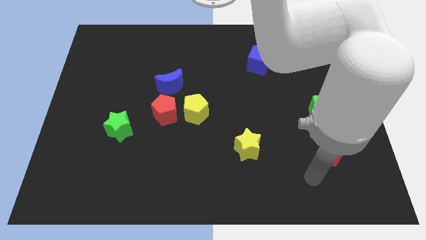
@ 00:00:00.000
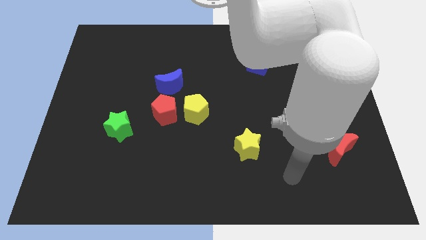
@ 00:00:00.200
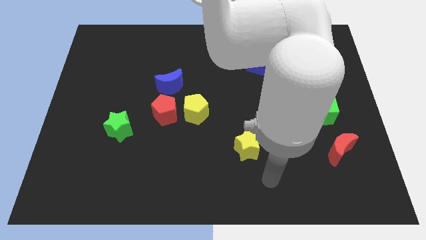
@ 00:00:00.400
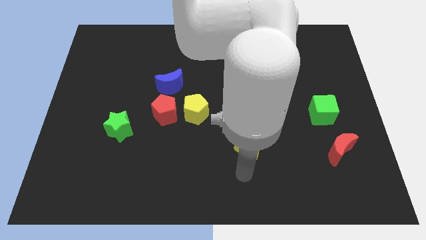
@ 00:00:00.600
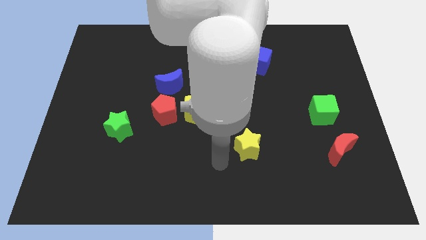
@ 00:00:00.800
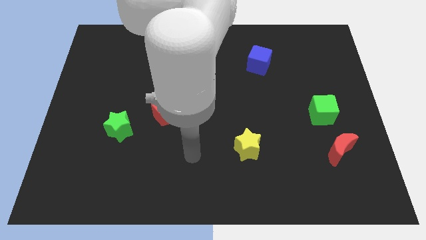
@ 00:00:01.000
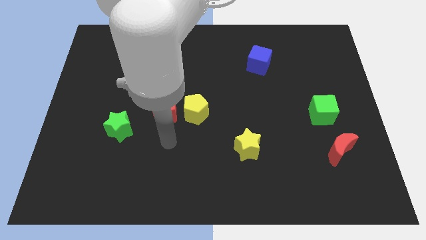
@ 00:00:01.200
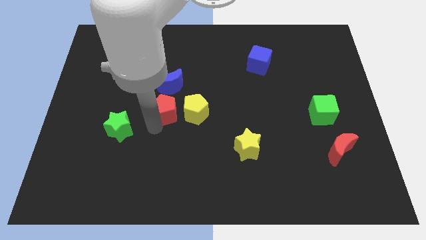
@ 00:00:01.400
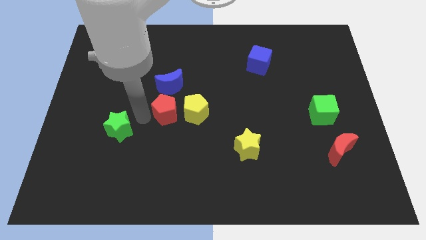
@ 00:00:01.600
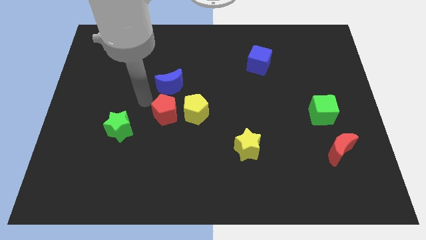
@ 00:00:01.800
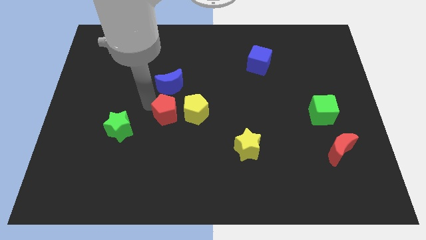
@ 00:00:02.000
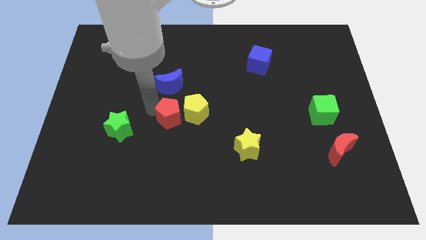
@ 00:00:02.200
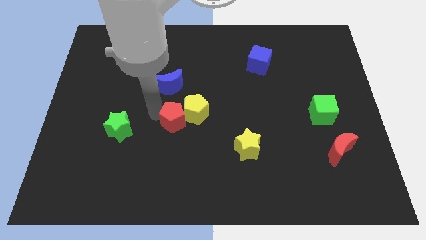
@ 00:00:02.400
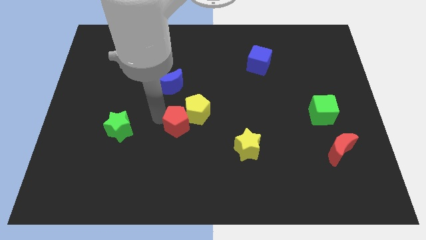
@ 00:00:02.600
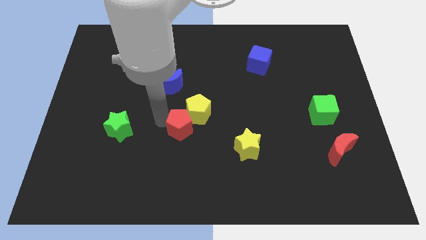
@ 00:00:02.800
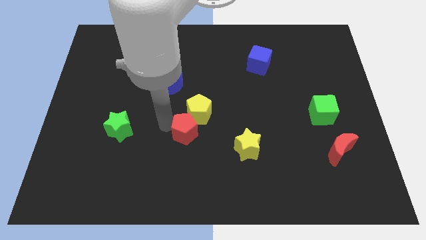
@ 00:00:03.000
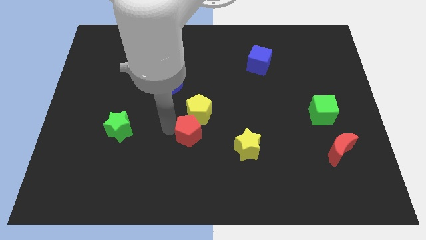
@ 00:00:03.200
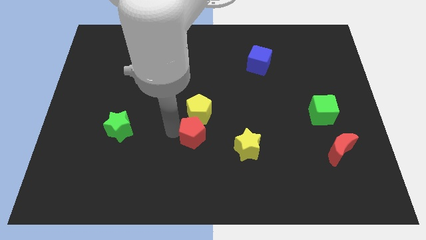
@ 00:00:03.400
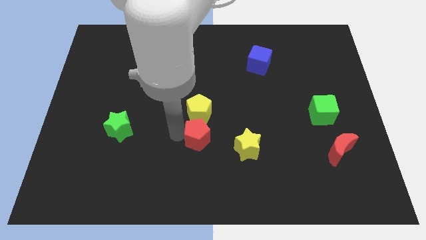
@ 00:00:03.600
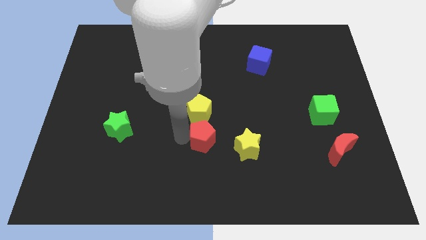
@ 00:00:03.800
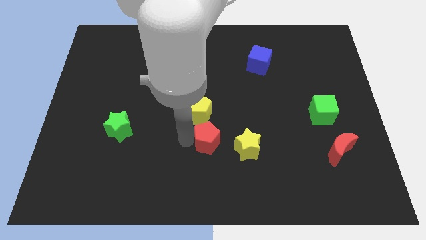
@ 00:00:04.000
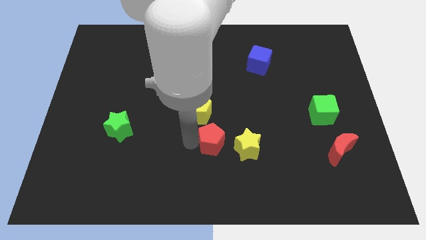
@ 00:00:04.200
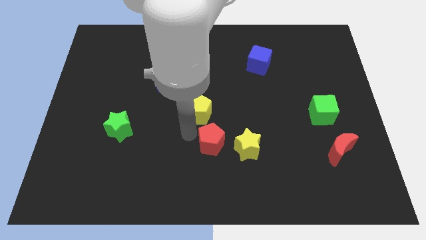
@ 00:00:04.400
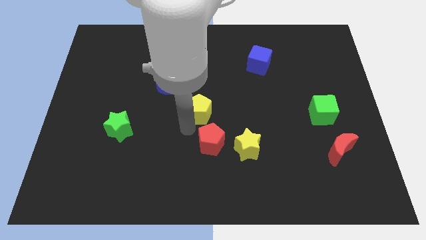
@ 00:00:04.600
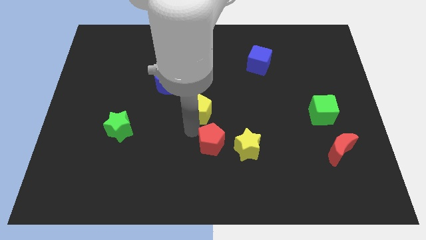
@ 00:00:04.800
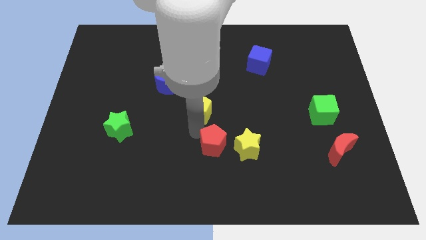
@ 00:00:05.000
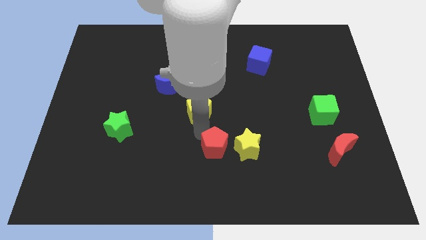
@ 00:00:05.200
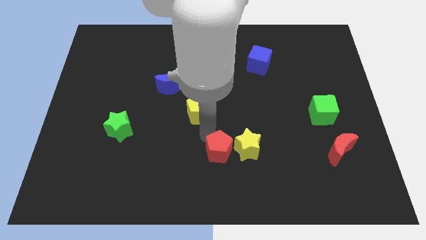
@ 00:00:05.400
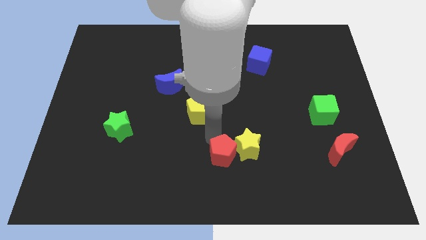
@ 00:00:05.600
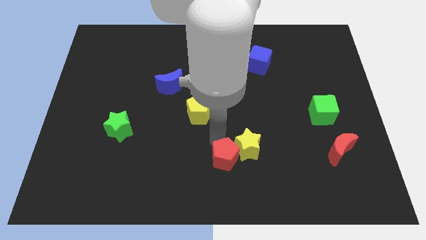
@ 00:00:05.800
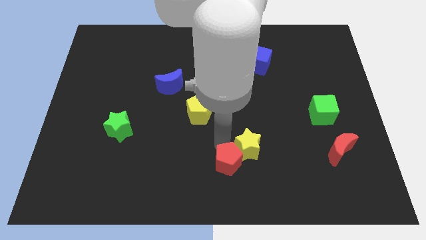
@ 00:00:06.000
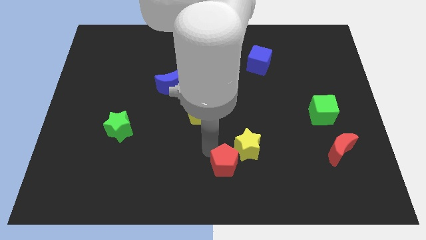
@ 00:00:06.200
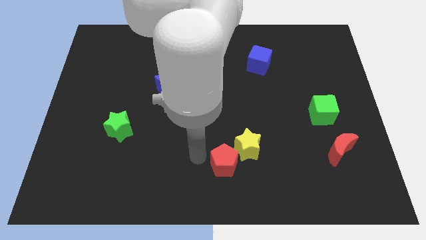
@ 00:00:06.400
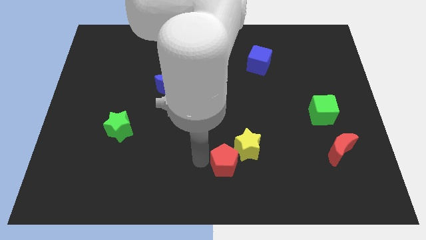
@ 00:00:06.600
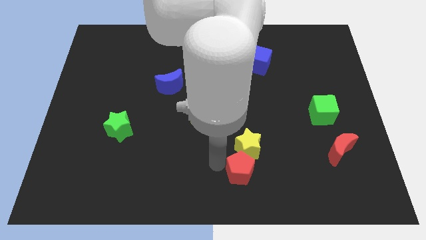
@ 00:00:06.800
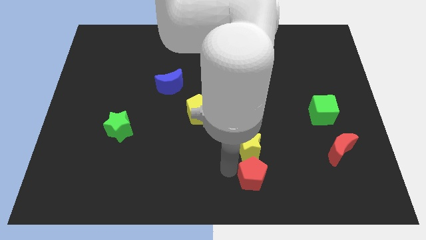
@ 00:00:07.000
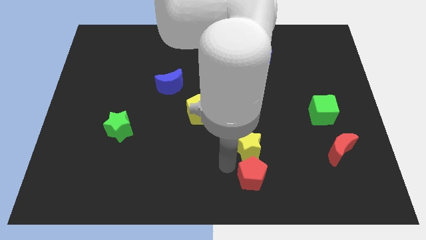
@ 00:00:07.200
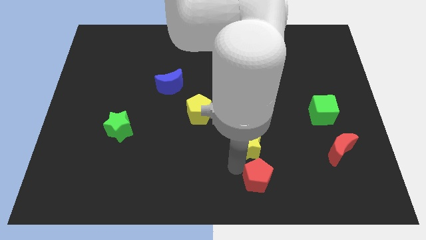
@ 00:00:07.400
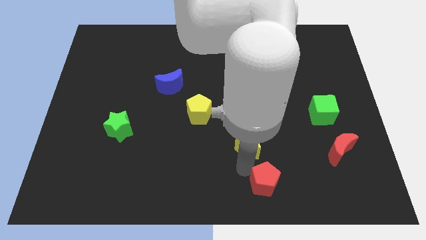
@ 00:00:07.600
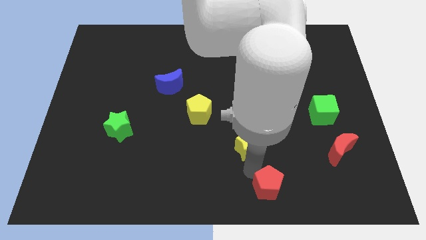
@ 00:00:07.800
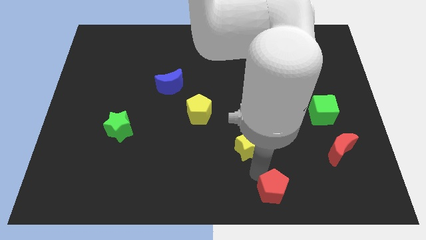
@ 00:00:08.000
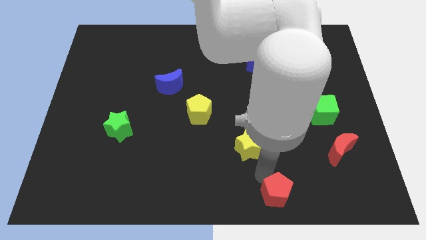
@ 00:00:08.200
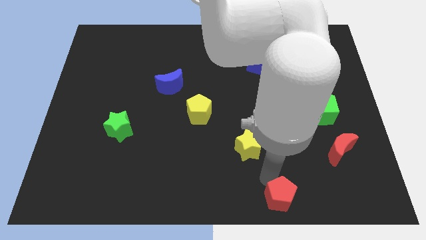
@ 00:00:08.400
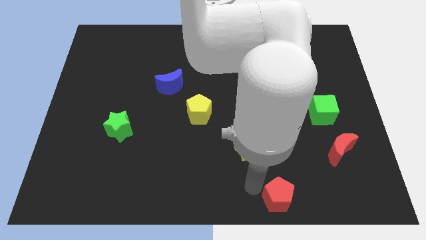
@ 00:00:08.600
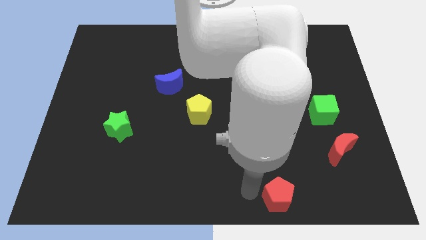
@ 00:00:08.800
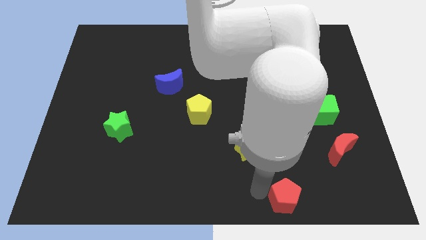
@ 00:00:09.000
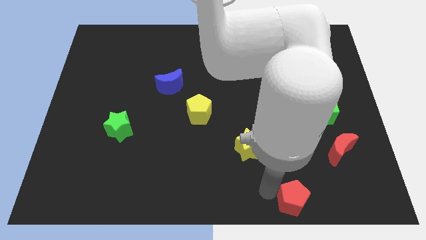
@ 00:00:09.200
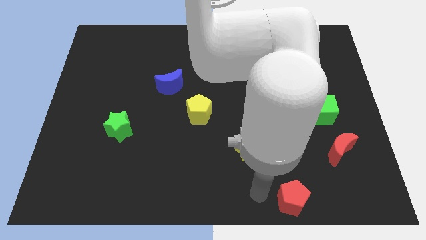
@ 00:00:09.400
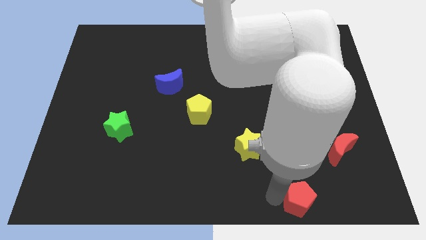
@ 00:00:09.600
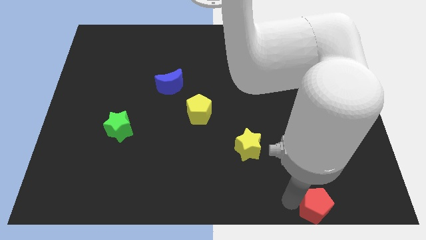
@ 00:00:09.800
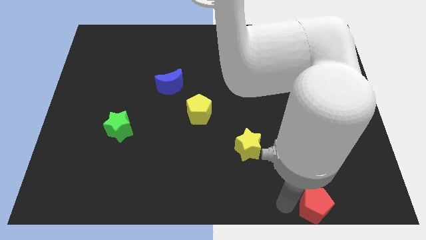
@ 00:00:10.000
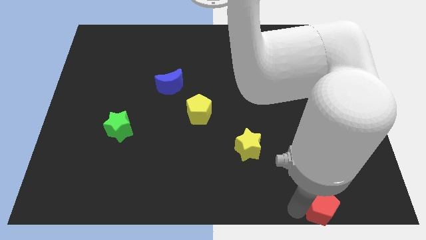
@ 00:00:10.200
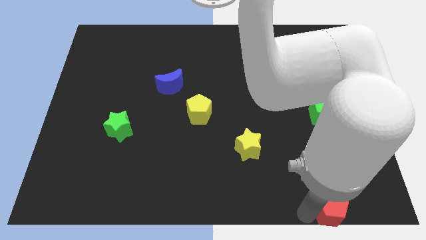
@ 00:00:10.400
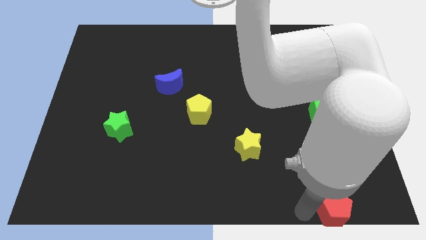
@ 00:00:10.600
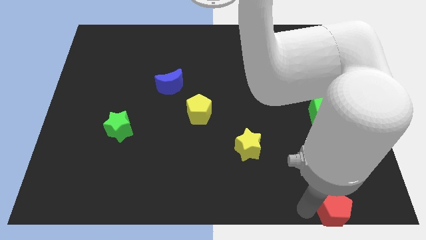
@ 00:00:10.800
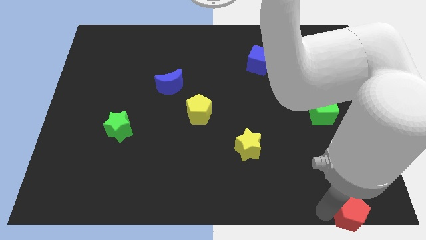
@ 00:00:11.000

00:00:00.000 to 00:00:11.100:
move the red pentagon to the bottom right of the board
